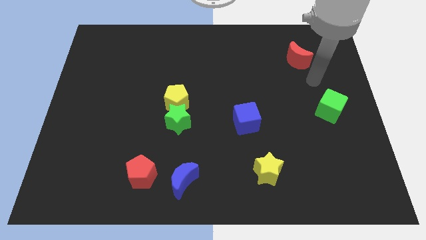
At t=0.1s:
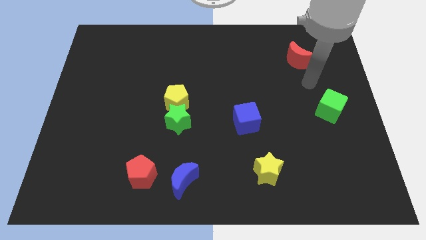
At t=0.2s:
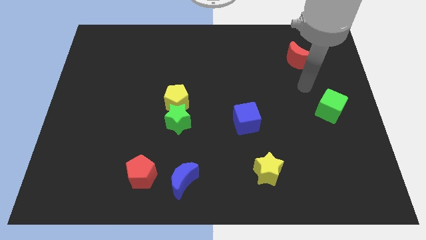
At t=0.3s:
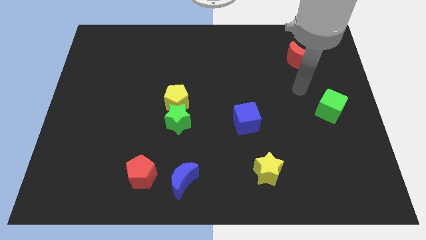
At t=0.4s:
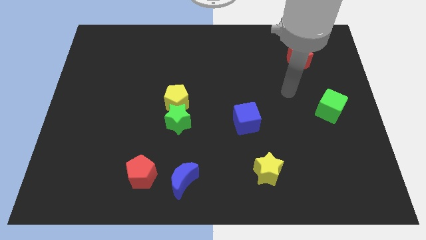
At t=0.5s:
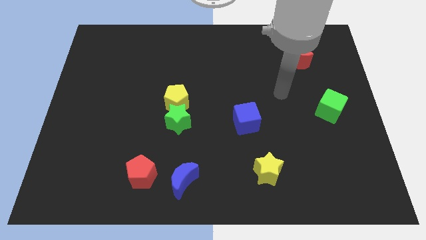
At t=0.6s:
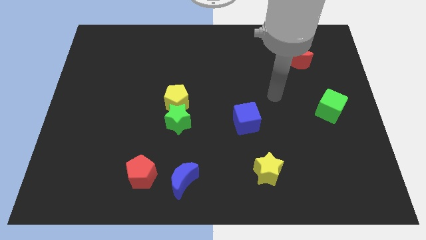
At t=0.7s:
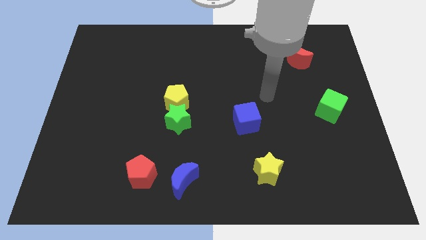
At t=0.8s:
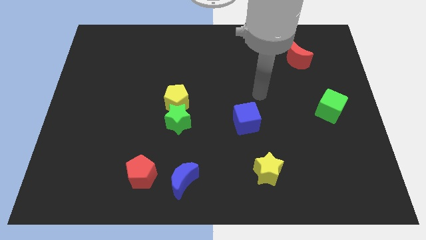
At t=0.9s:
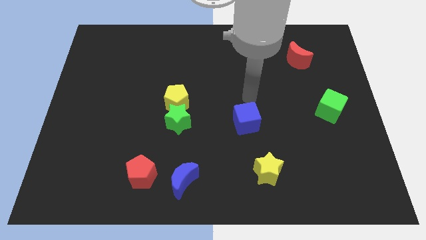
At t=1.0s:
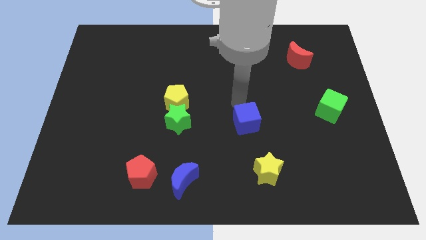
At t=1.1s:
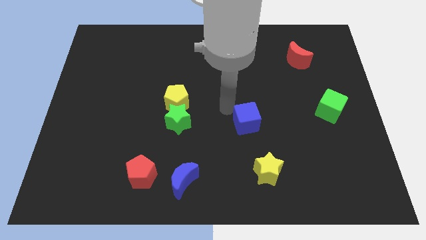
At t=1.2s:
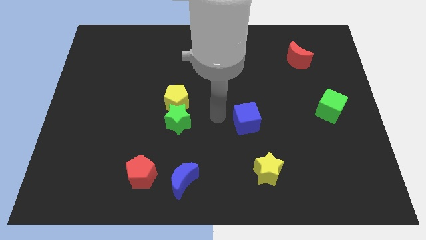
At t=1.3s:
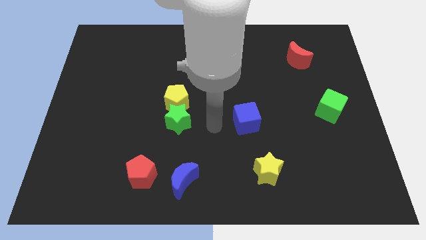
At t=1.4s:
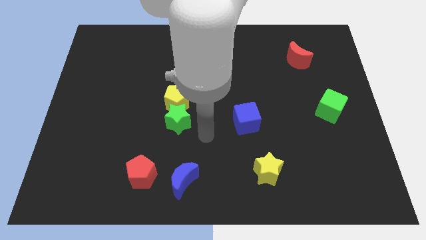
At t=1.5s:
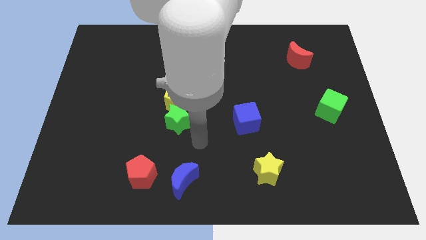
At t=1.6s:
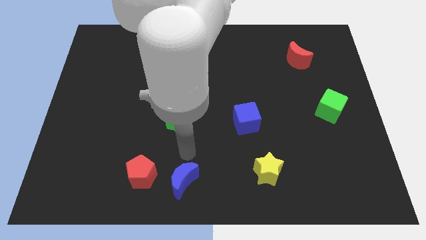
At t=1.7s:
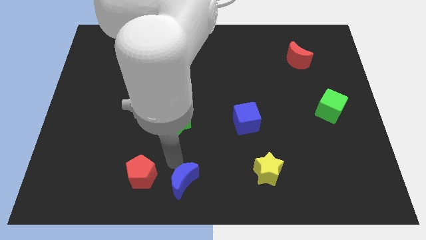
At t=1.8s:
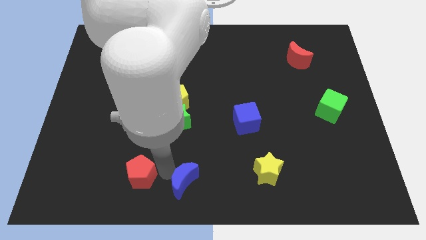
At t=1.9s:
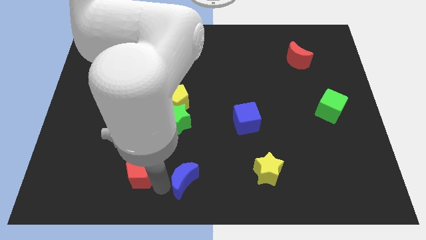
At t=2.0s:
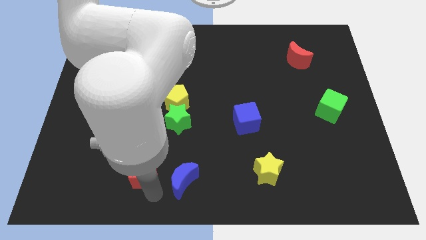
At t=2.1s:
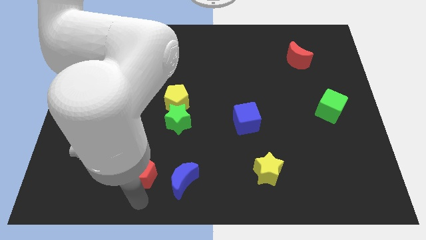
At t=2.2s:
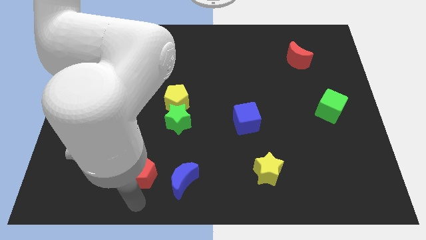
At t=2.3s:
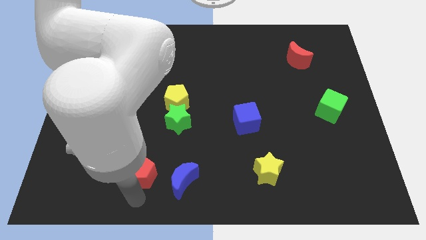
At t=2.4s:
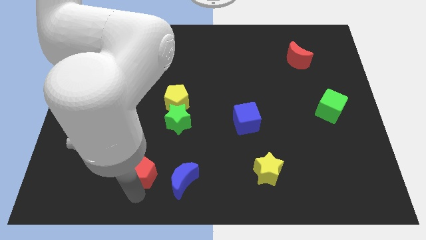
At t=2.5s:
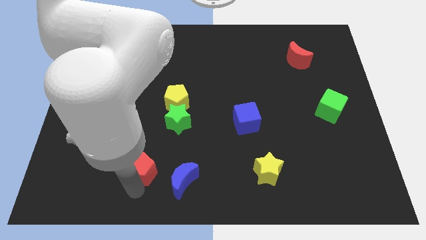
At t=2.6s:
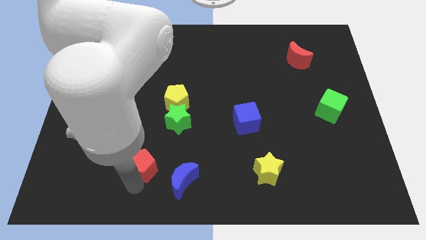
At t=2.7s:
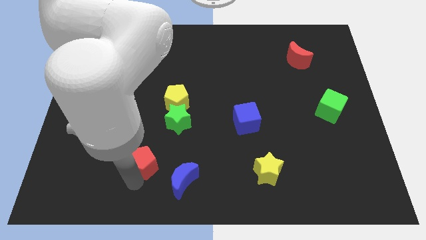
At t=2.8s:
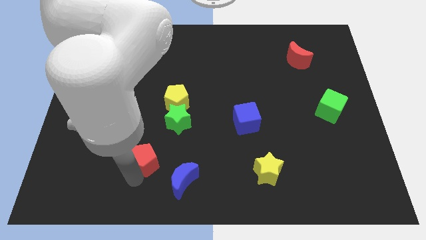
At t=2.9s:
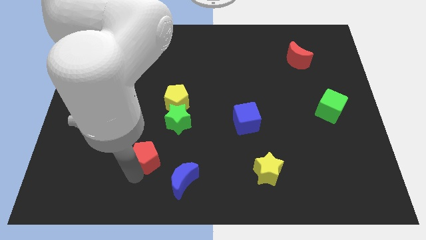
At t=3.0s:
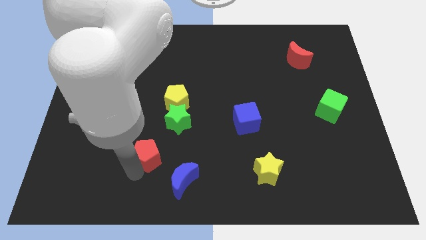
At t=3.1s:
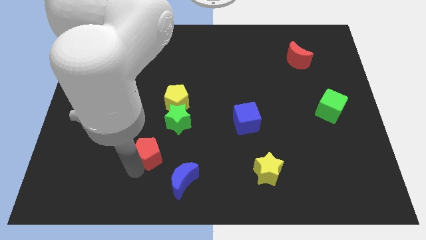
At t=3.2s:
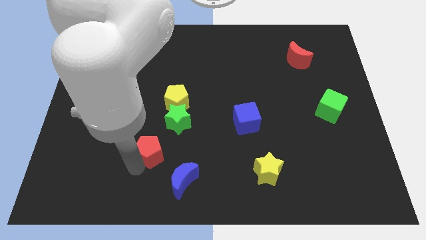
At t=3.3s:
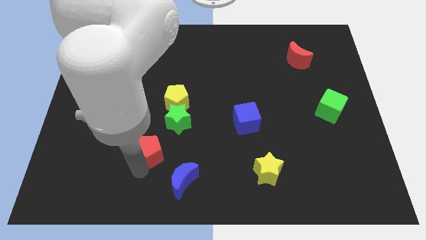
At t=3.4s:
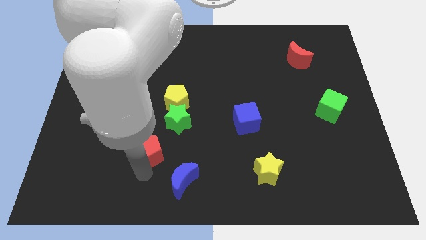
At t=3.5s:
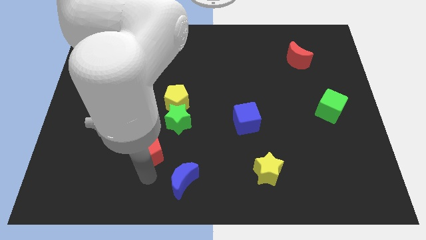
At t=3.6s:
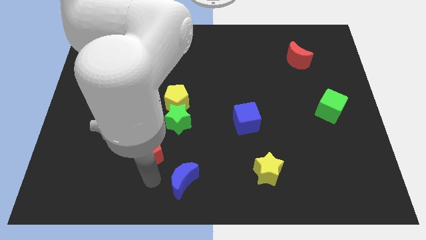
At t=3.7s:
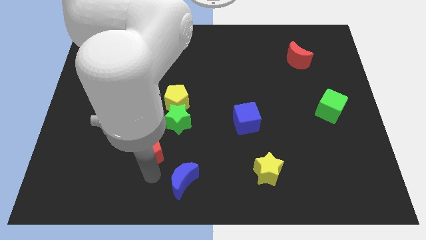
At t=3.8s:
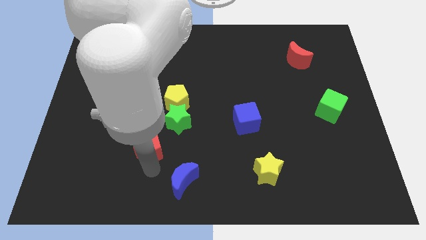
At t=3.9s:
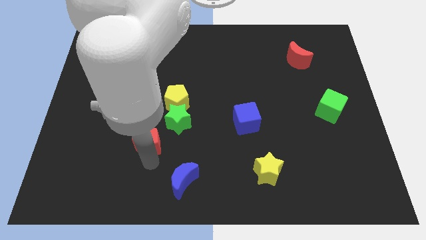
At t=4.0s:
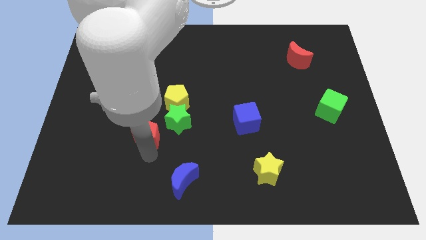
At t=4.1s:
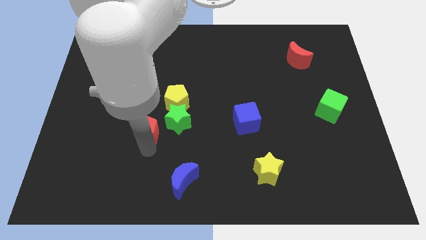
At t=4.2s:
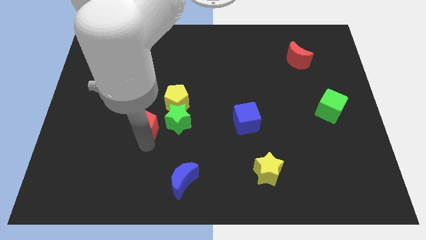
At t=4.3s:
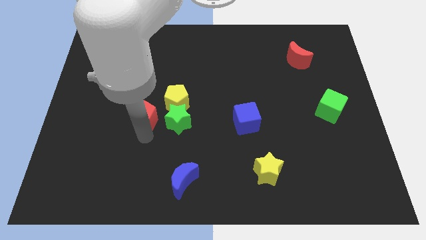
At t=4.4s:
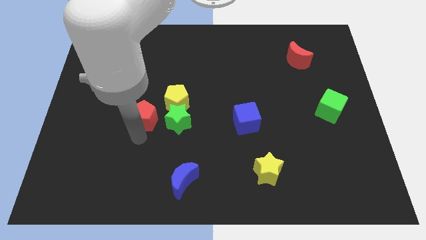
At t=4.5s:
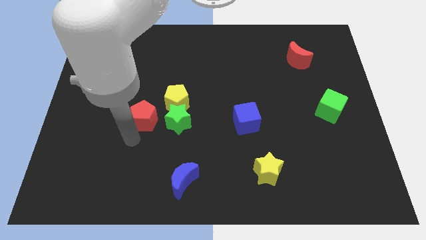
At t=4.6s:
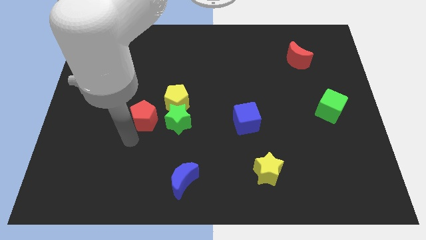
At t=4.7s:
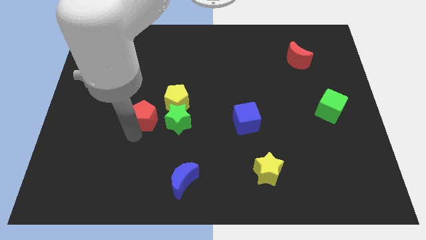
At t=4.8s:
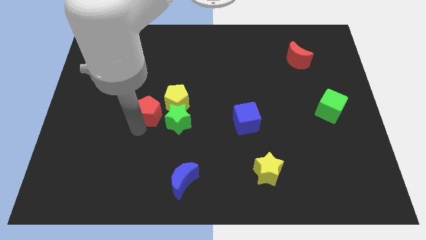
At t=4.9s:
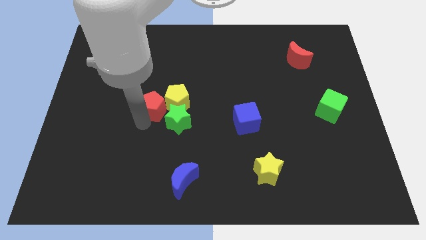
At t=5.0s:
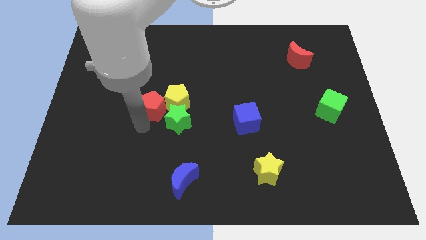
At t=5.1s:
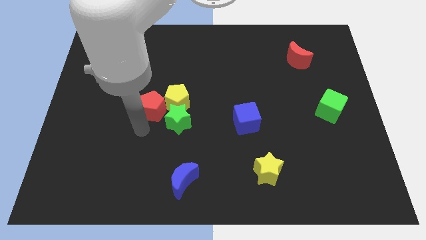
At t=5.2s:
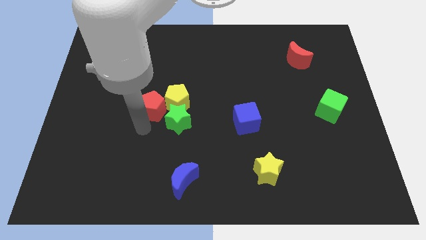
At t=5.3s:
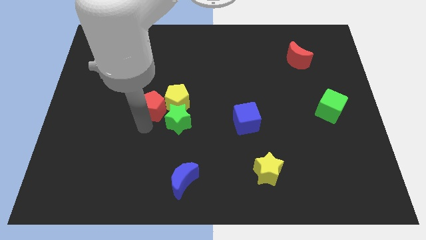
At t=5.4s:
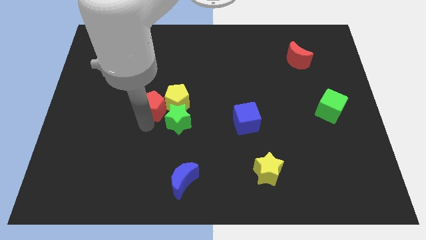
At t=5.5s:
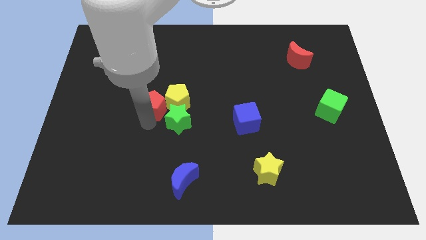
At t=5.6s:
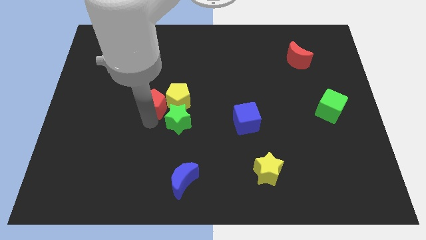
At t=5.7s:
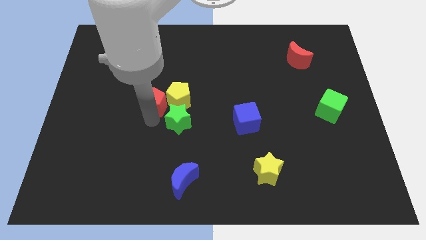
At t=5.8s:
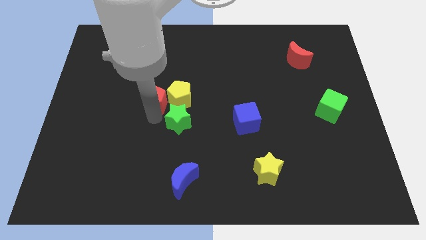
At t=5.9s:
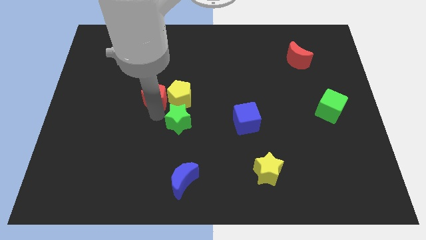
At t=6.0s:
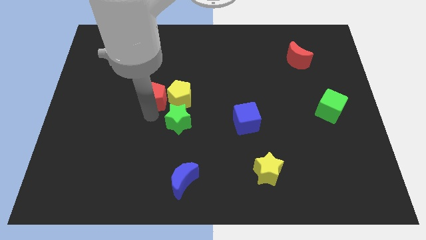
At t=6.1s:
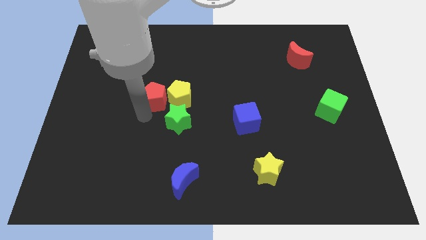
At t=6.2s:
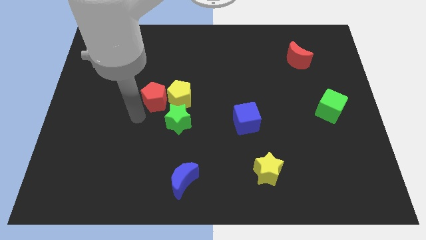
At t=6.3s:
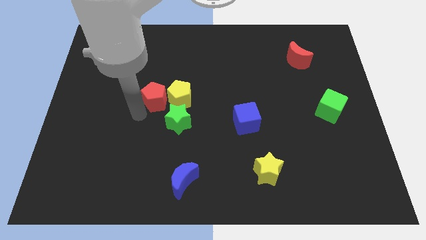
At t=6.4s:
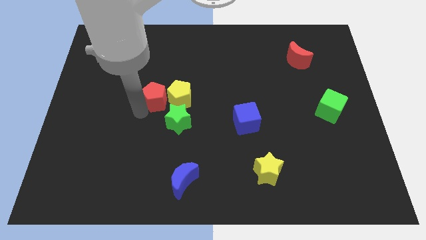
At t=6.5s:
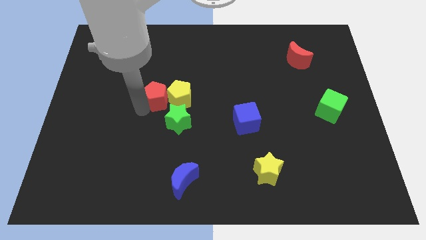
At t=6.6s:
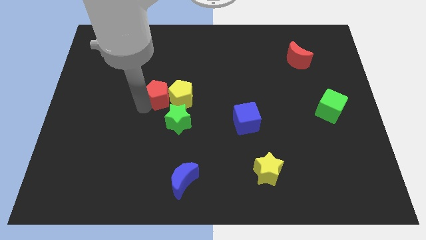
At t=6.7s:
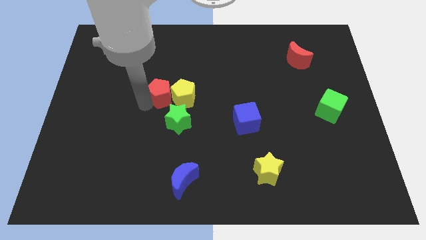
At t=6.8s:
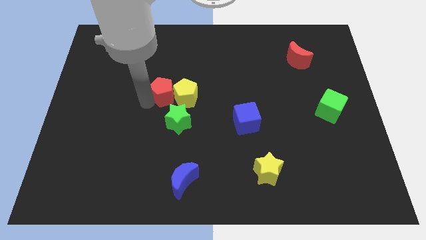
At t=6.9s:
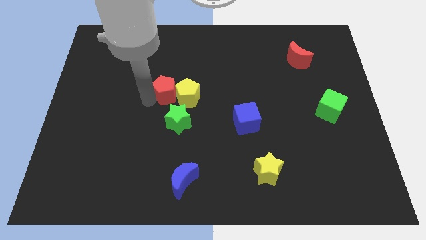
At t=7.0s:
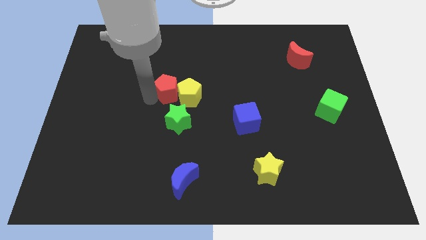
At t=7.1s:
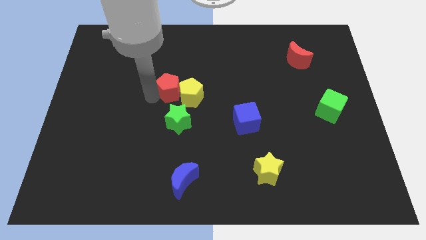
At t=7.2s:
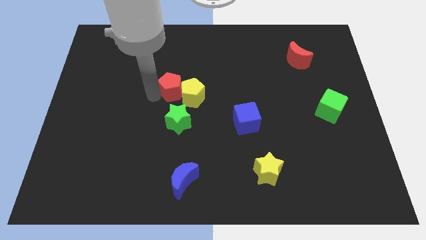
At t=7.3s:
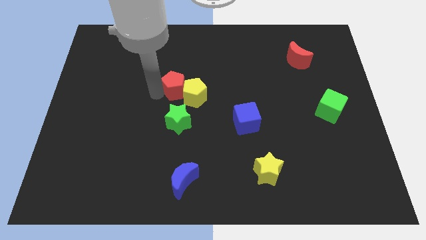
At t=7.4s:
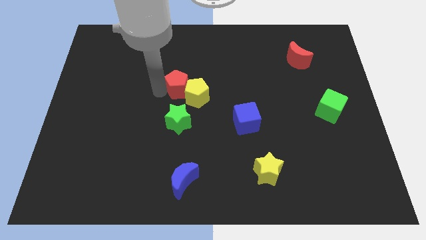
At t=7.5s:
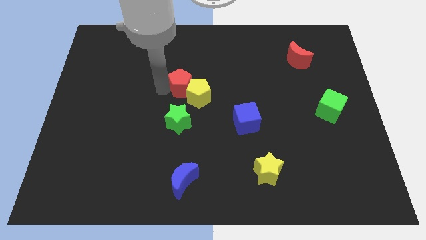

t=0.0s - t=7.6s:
push the red pentagon above the yellow pentagon
